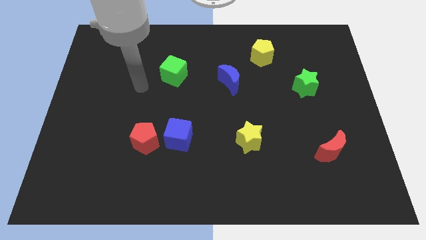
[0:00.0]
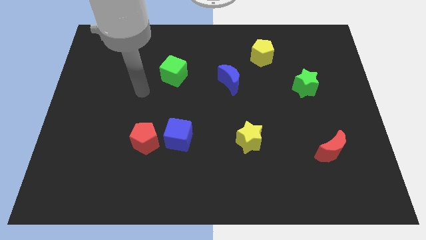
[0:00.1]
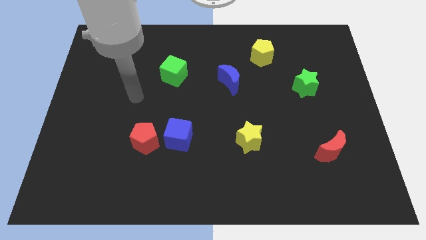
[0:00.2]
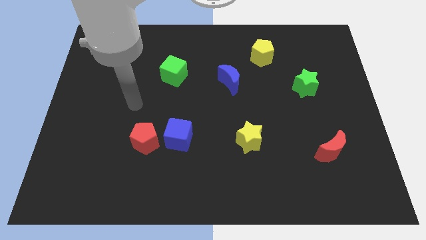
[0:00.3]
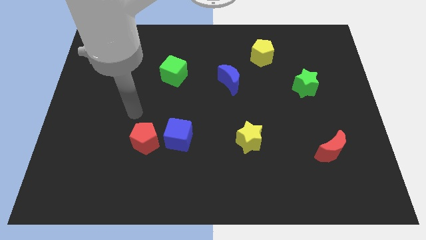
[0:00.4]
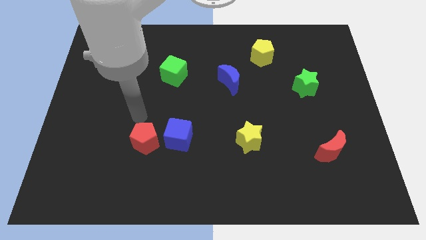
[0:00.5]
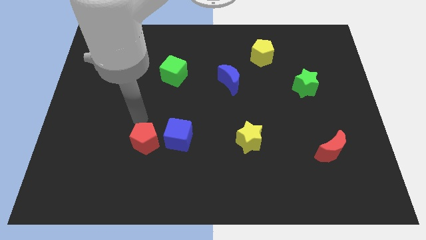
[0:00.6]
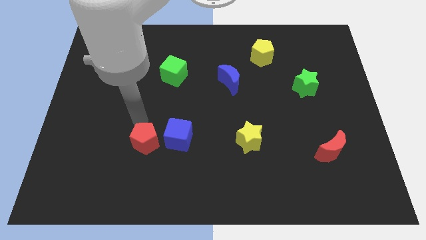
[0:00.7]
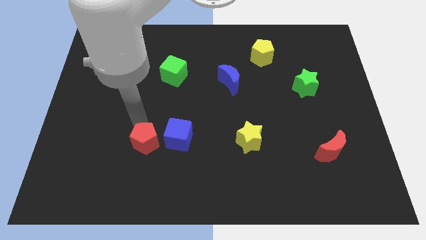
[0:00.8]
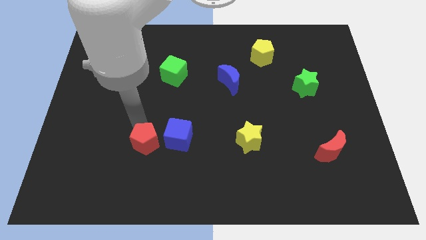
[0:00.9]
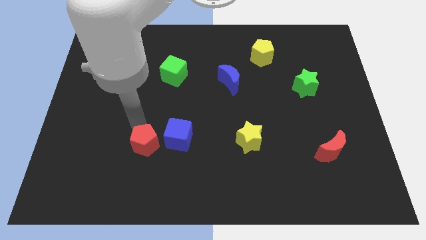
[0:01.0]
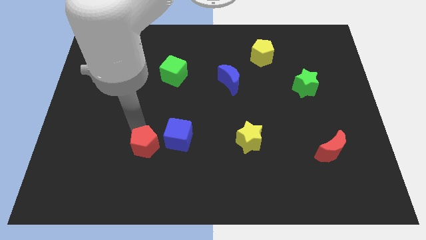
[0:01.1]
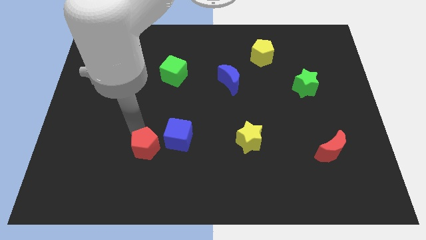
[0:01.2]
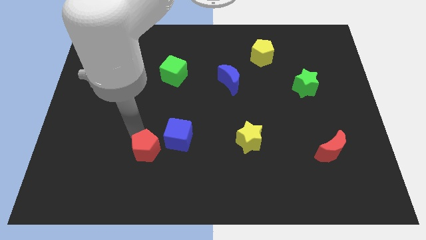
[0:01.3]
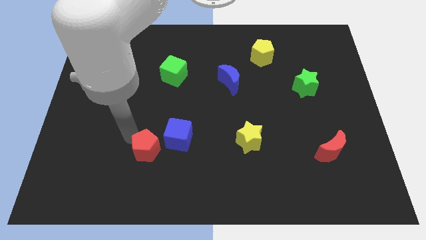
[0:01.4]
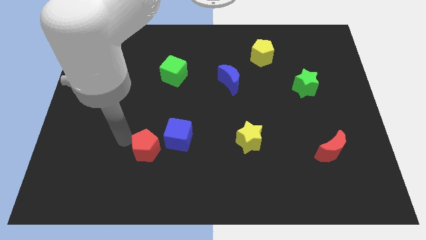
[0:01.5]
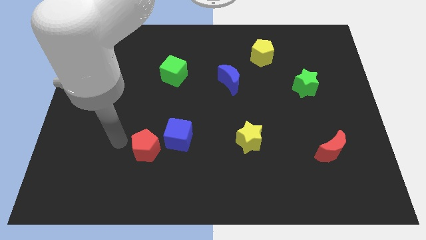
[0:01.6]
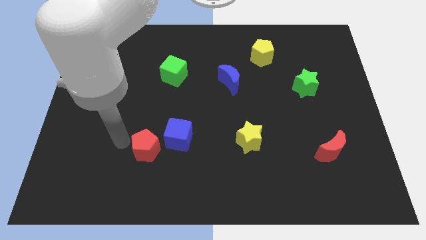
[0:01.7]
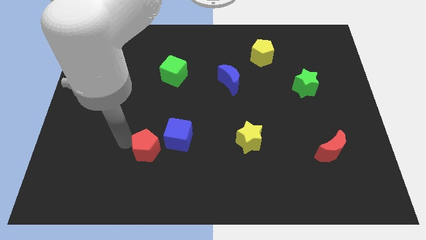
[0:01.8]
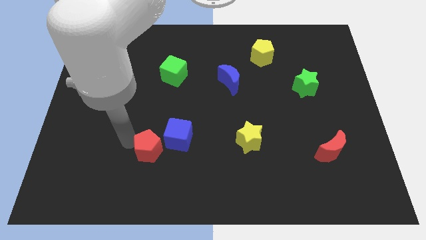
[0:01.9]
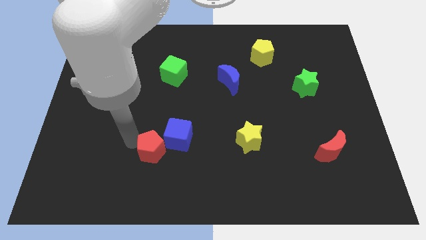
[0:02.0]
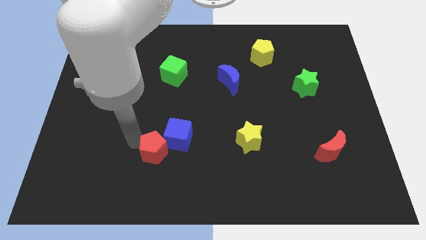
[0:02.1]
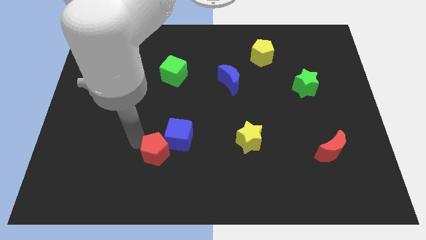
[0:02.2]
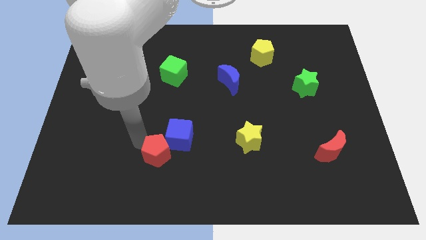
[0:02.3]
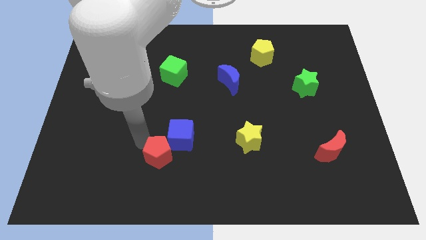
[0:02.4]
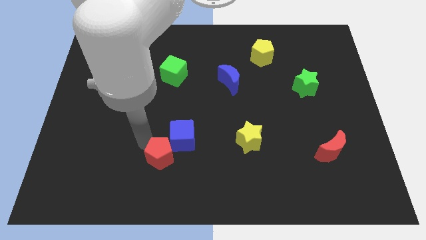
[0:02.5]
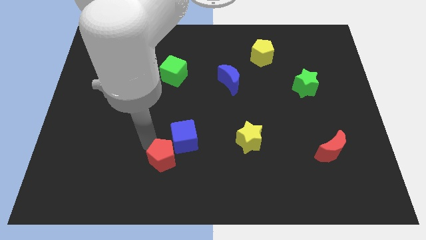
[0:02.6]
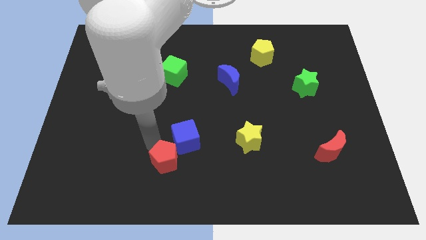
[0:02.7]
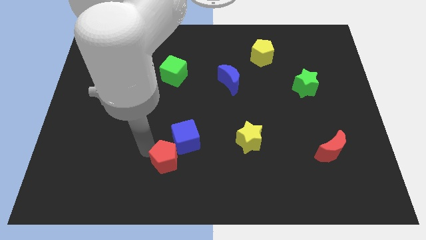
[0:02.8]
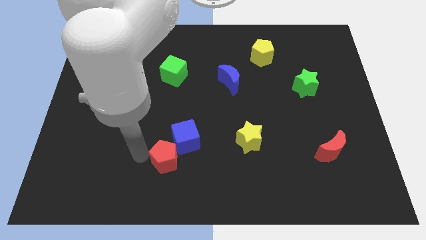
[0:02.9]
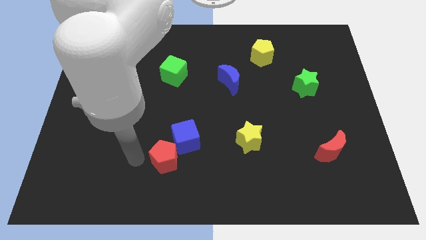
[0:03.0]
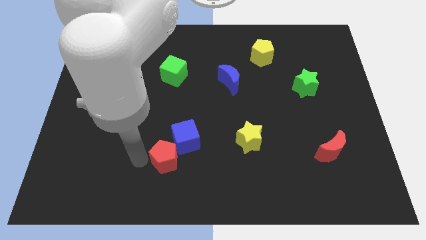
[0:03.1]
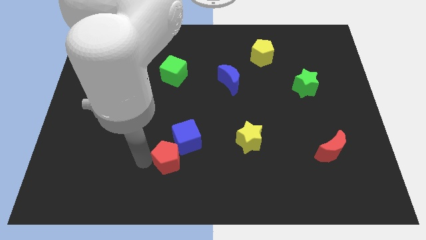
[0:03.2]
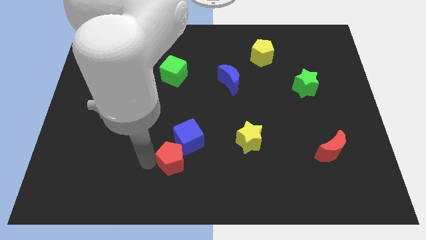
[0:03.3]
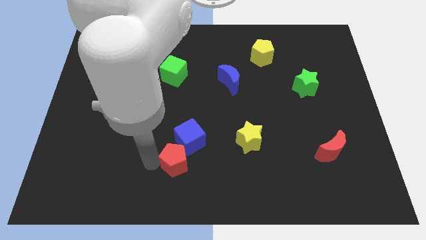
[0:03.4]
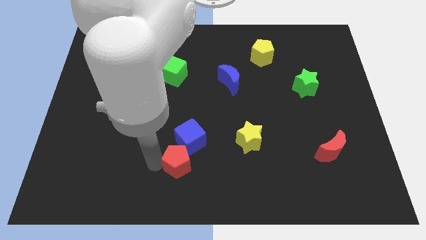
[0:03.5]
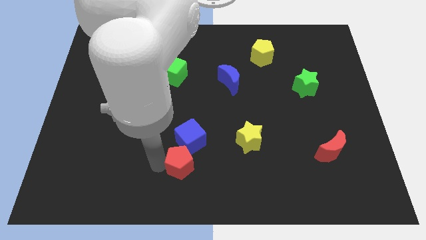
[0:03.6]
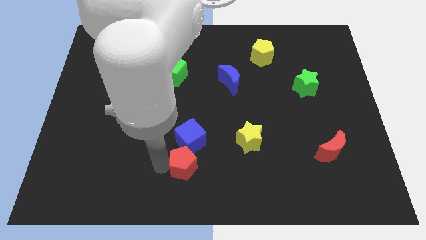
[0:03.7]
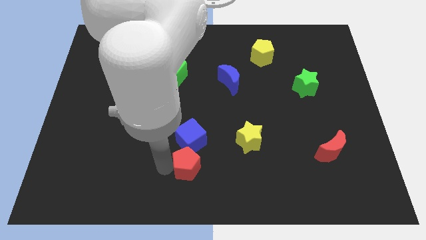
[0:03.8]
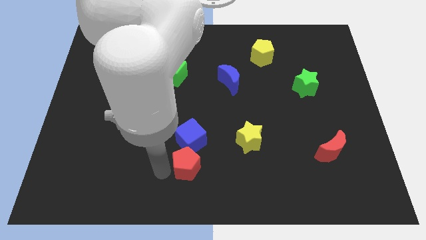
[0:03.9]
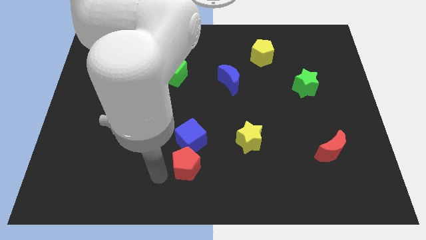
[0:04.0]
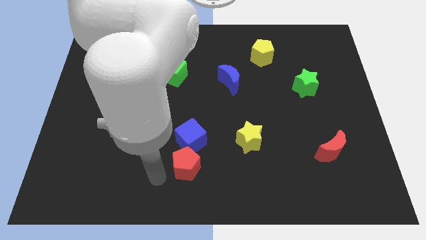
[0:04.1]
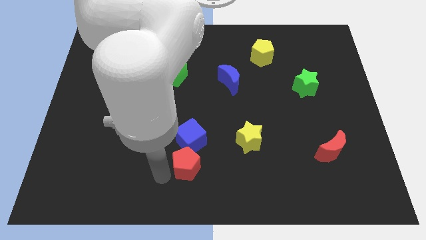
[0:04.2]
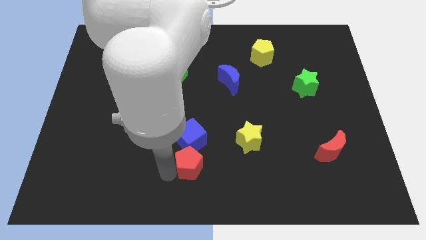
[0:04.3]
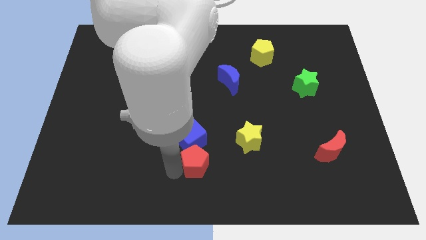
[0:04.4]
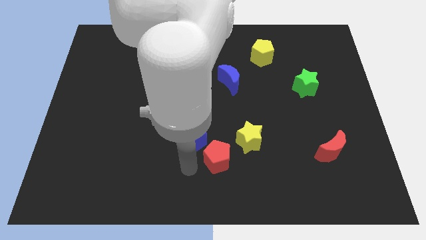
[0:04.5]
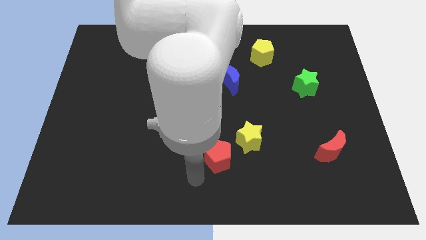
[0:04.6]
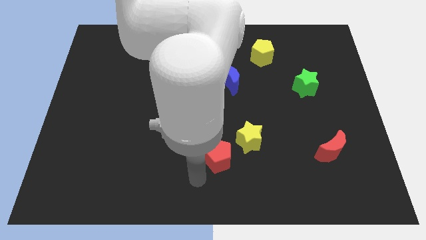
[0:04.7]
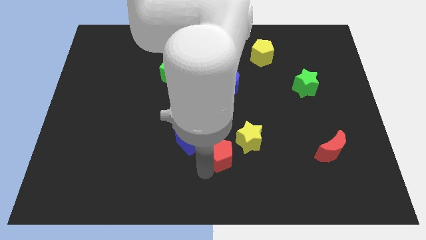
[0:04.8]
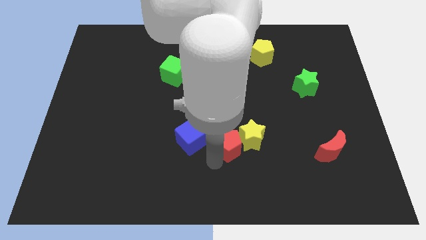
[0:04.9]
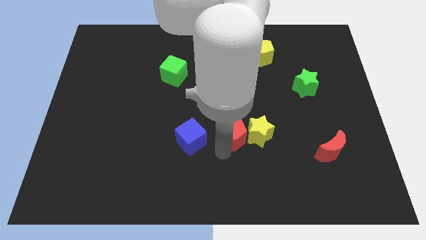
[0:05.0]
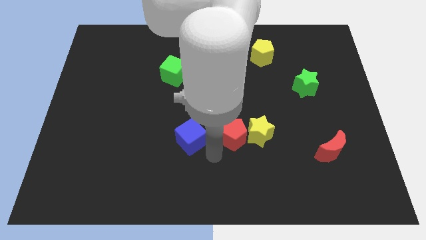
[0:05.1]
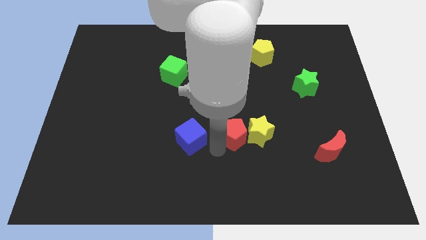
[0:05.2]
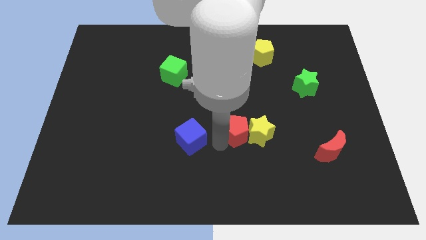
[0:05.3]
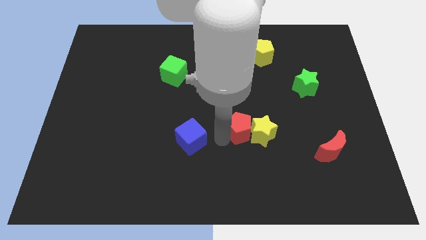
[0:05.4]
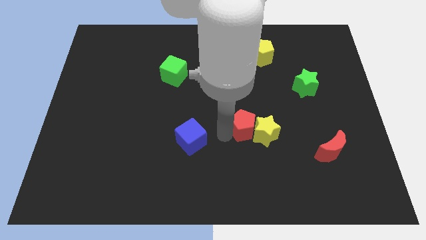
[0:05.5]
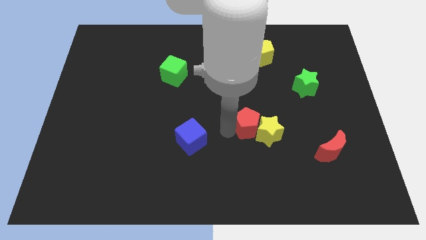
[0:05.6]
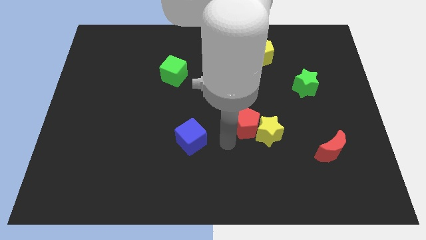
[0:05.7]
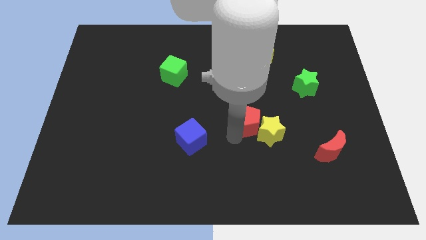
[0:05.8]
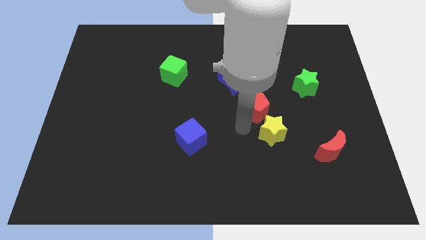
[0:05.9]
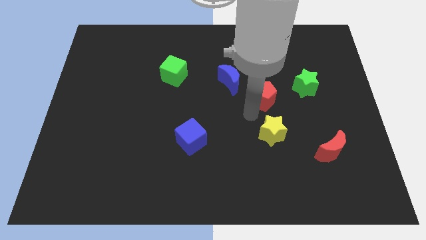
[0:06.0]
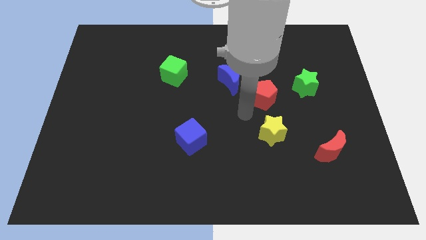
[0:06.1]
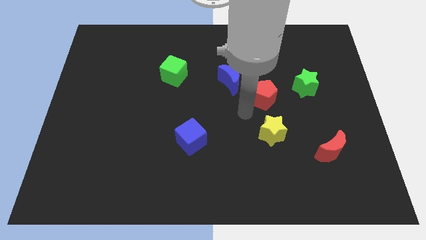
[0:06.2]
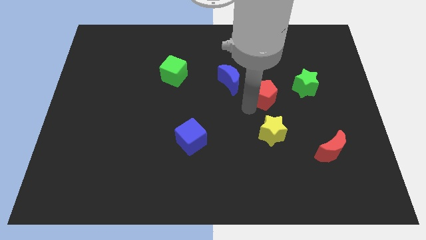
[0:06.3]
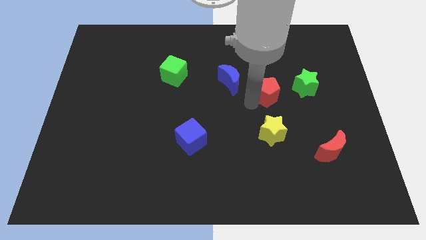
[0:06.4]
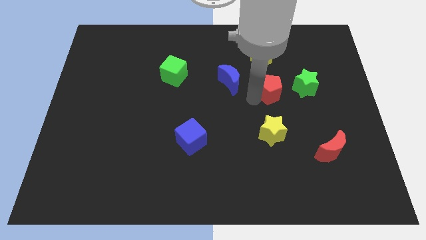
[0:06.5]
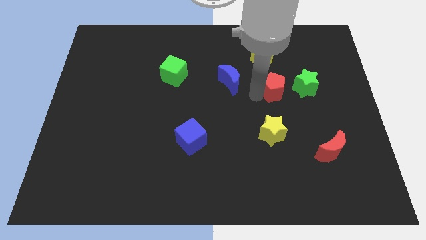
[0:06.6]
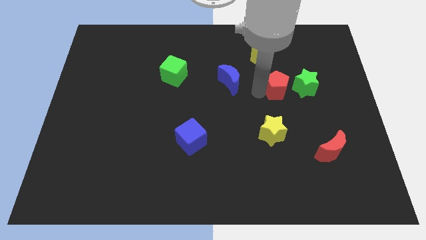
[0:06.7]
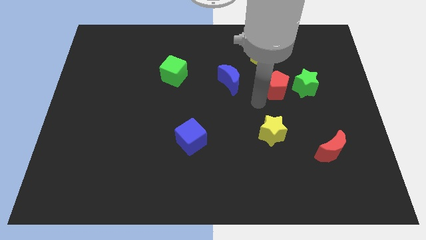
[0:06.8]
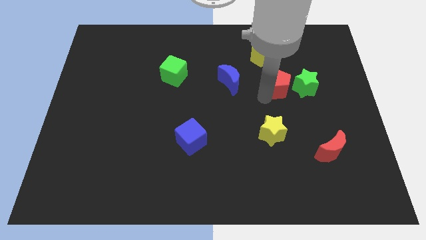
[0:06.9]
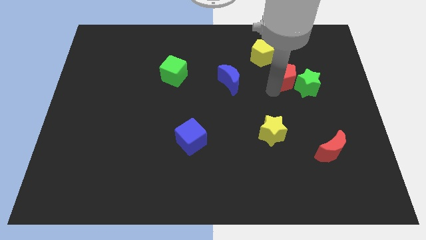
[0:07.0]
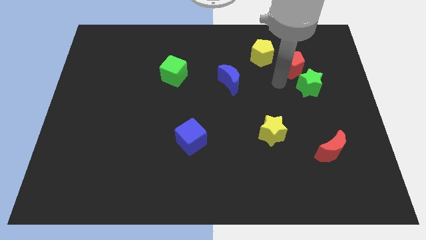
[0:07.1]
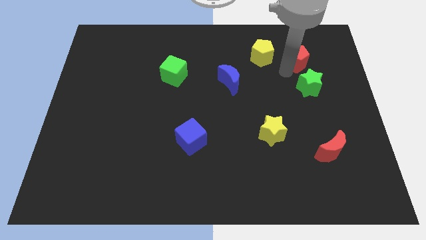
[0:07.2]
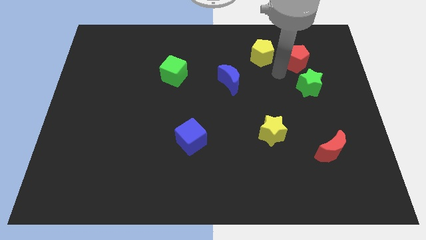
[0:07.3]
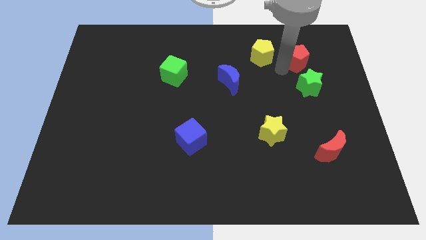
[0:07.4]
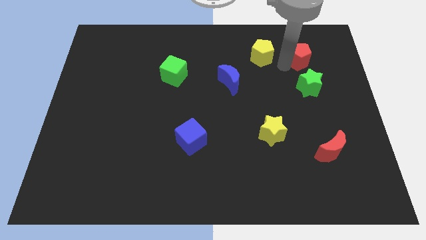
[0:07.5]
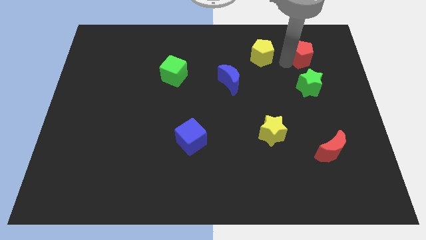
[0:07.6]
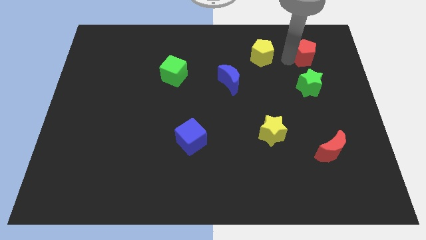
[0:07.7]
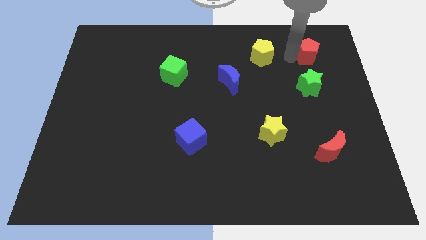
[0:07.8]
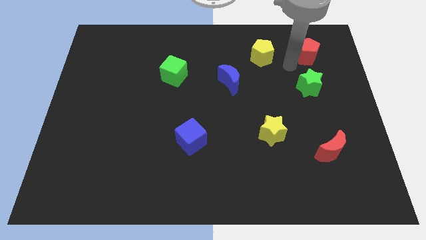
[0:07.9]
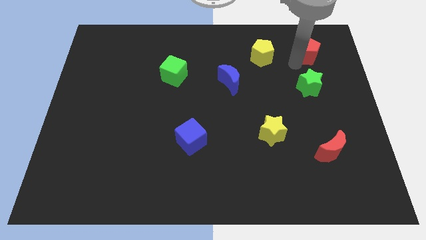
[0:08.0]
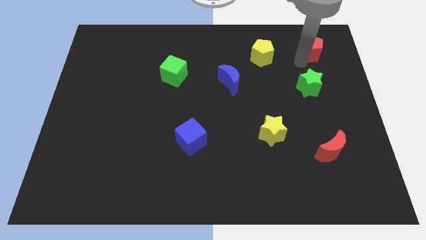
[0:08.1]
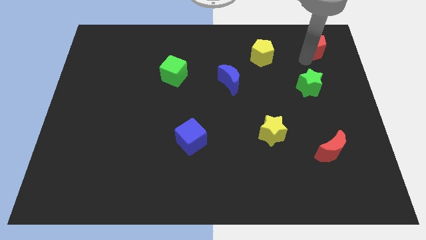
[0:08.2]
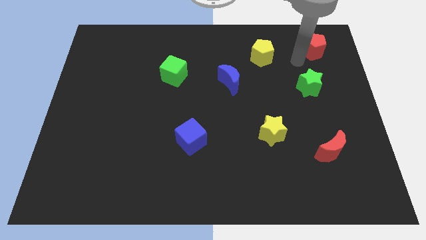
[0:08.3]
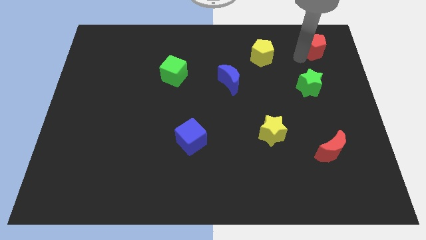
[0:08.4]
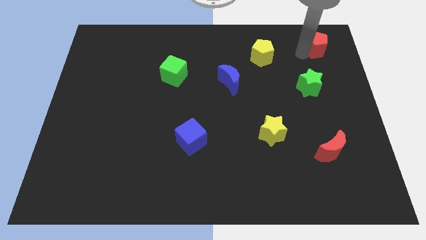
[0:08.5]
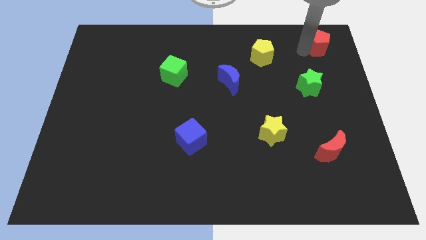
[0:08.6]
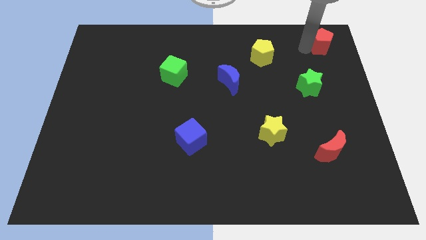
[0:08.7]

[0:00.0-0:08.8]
push the red pentagon to the top right
